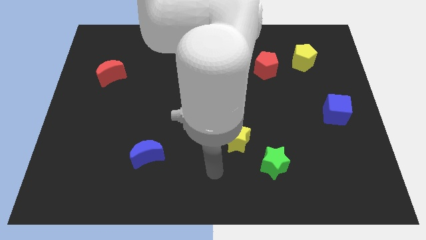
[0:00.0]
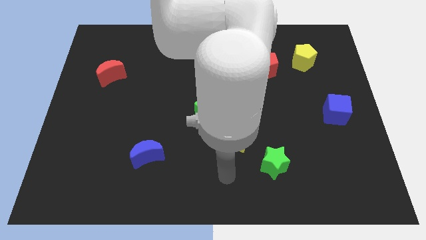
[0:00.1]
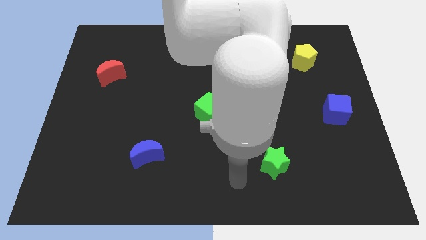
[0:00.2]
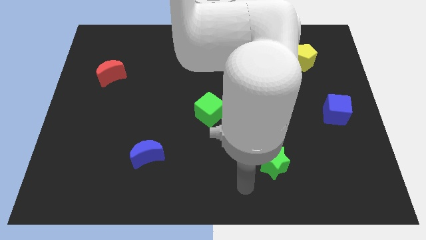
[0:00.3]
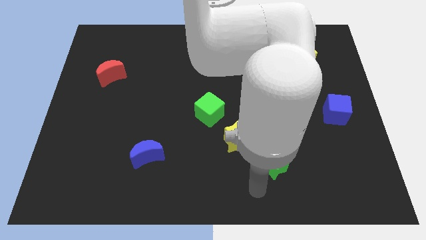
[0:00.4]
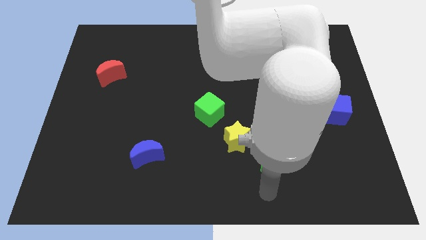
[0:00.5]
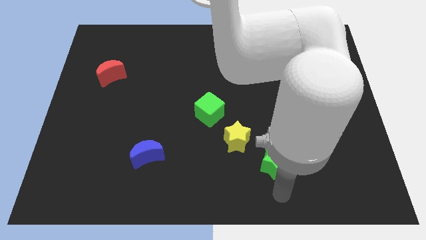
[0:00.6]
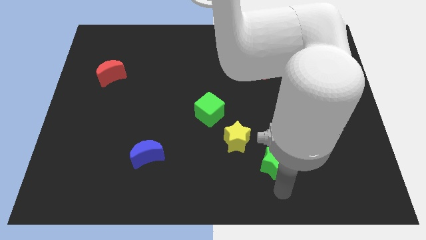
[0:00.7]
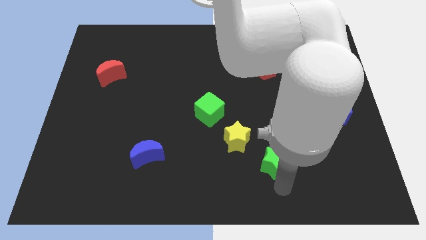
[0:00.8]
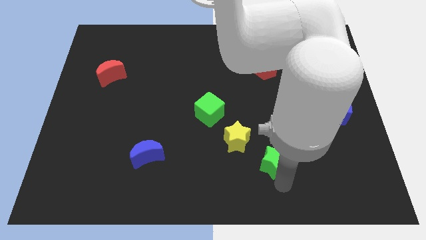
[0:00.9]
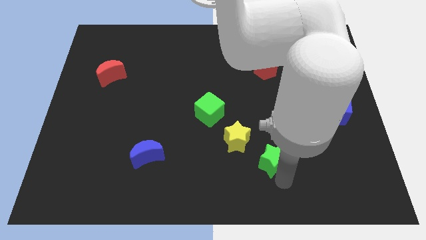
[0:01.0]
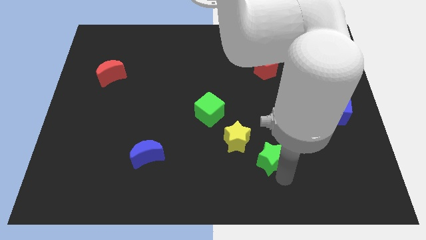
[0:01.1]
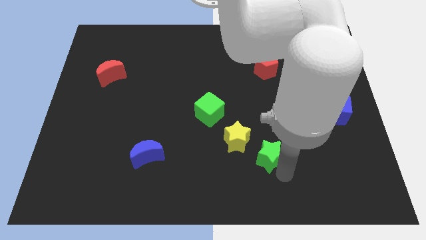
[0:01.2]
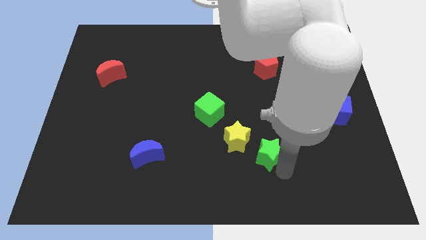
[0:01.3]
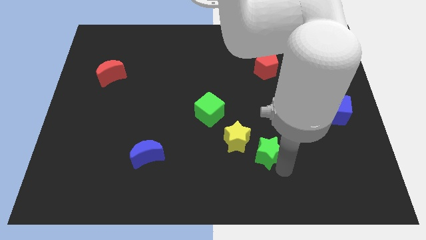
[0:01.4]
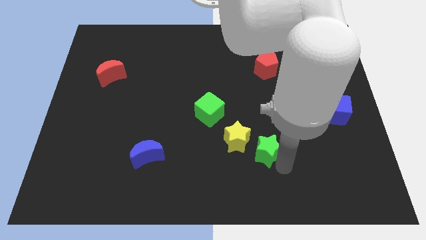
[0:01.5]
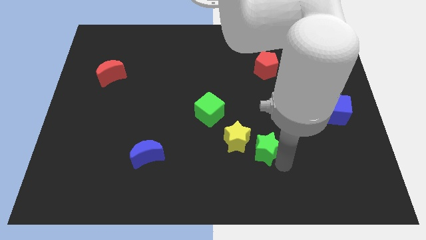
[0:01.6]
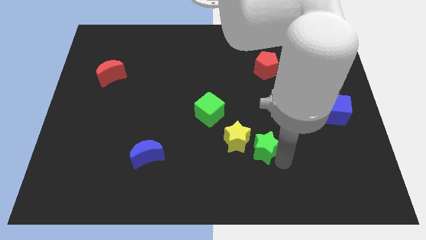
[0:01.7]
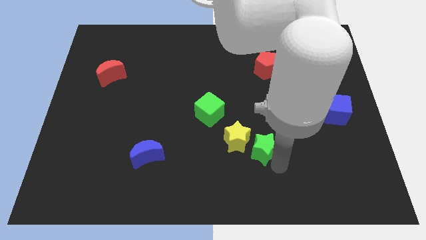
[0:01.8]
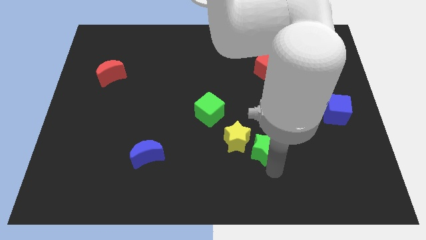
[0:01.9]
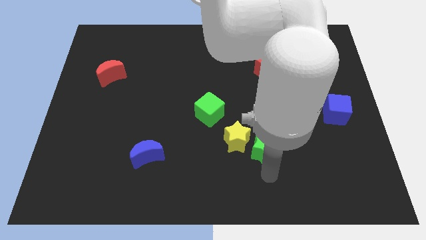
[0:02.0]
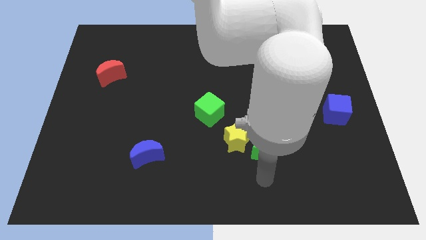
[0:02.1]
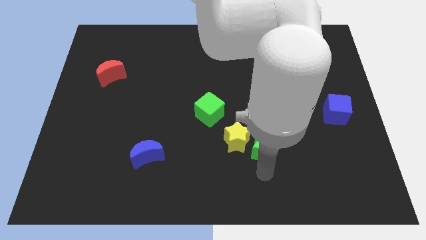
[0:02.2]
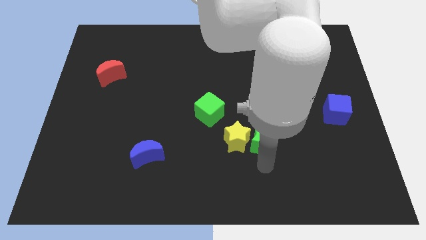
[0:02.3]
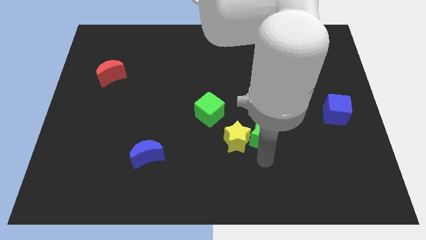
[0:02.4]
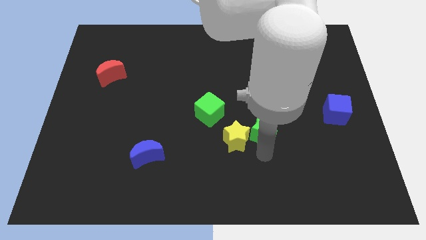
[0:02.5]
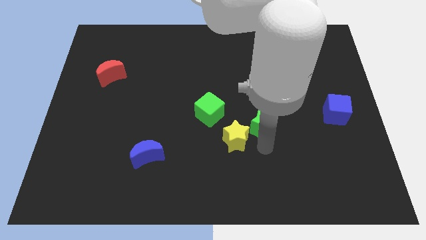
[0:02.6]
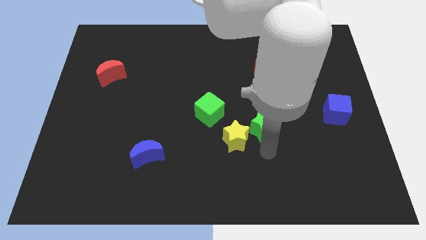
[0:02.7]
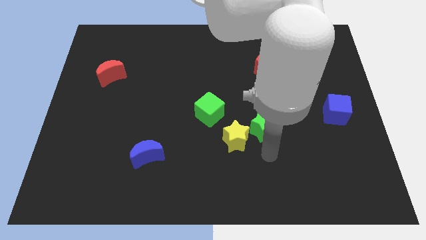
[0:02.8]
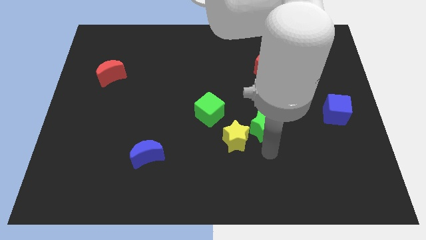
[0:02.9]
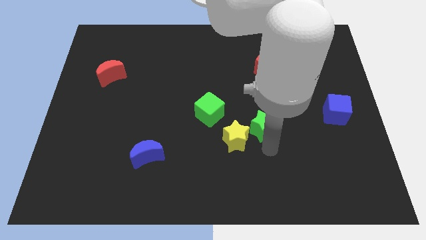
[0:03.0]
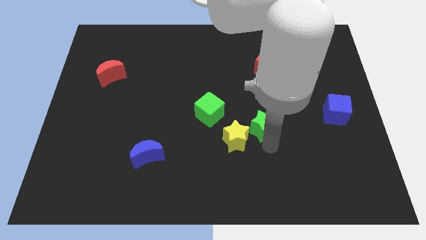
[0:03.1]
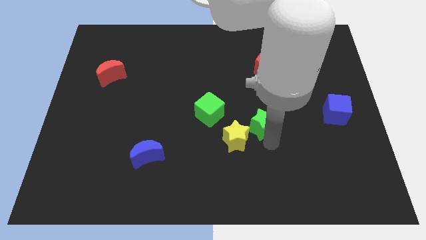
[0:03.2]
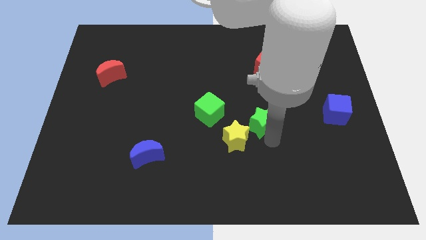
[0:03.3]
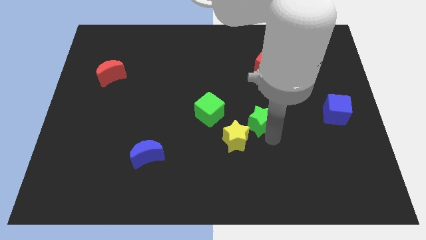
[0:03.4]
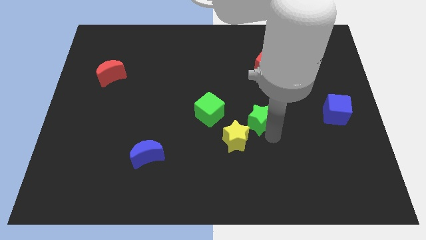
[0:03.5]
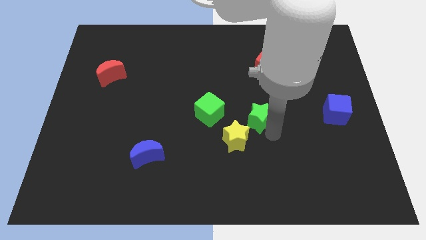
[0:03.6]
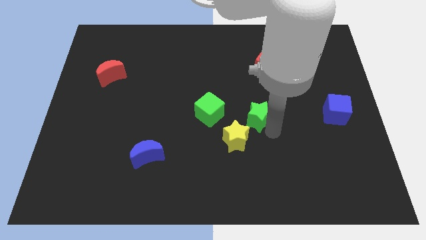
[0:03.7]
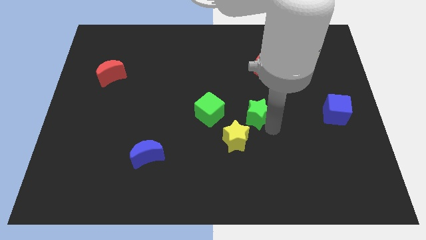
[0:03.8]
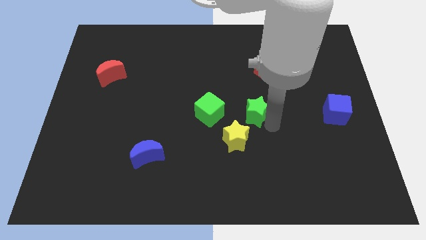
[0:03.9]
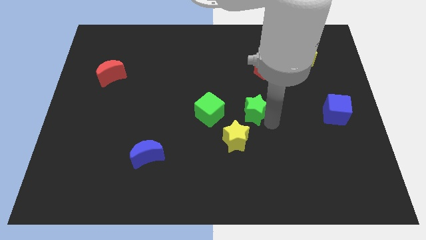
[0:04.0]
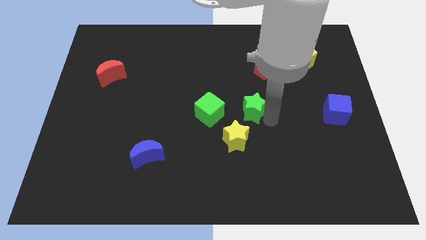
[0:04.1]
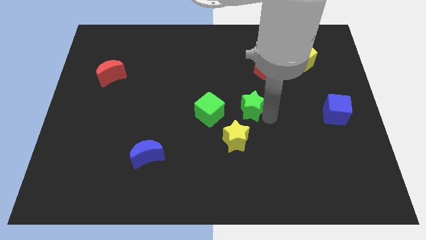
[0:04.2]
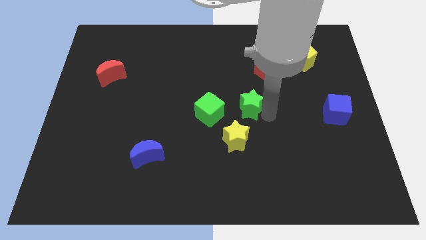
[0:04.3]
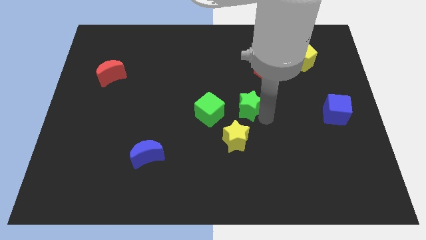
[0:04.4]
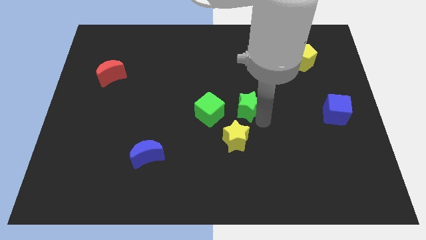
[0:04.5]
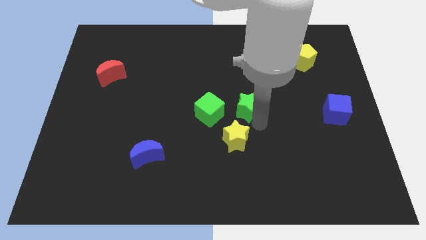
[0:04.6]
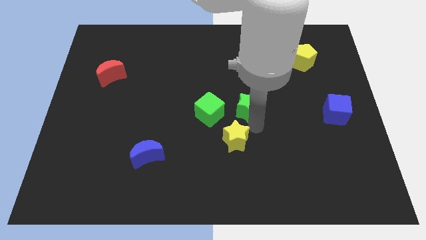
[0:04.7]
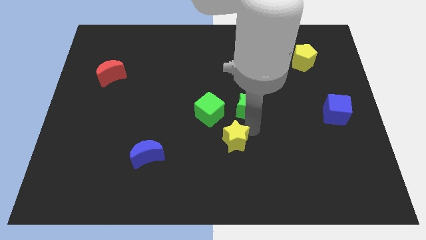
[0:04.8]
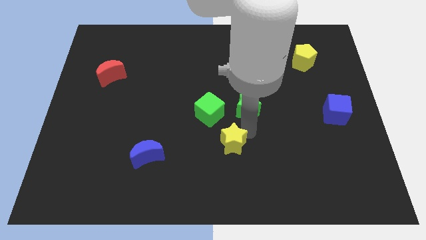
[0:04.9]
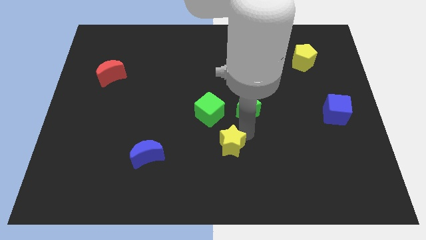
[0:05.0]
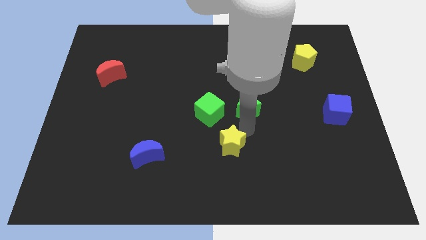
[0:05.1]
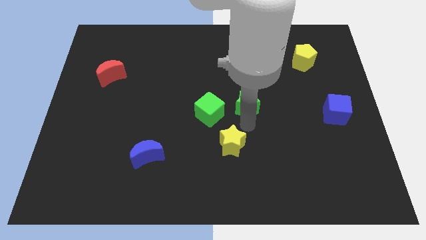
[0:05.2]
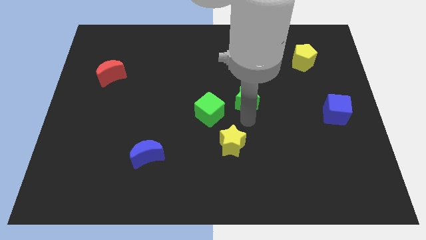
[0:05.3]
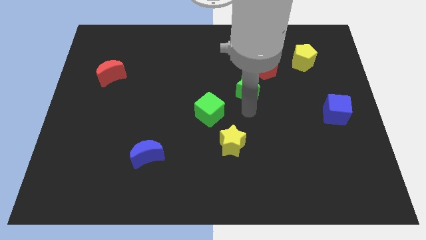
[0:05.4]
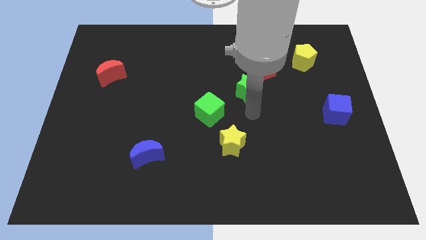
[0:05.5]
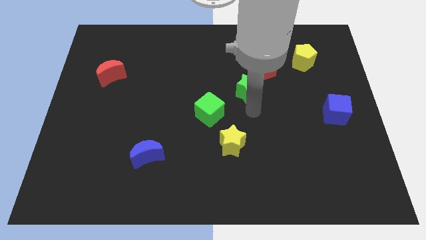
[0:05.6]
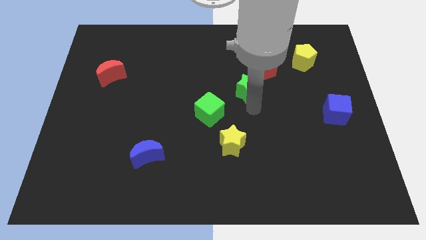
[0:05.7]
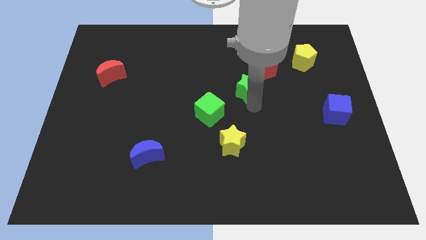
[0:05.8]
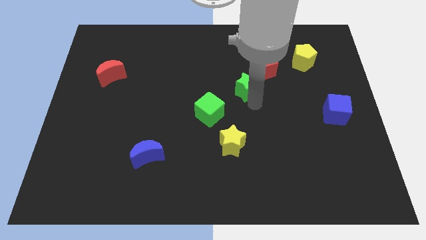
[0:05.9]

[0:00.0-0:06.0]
move the green star up

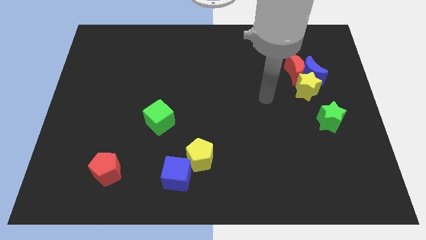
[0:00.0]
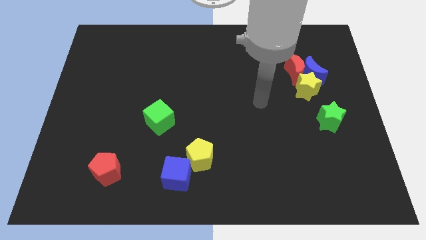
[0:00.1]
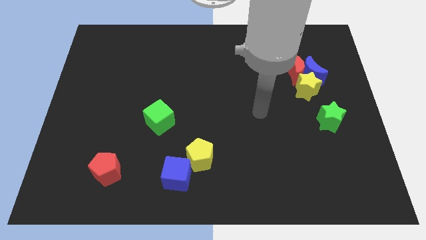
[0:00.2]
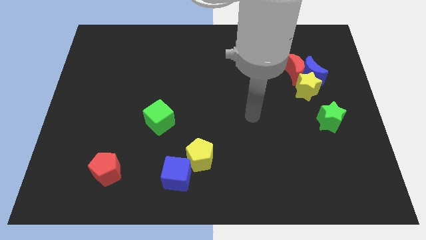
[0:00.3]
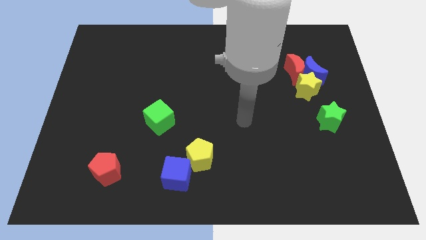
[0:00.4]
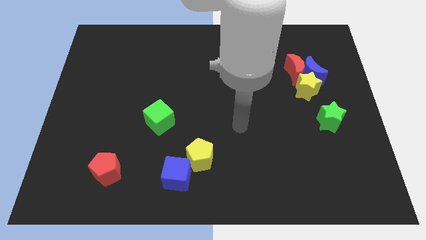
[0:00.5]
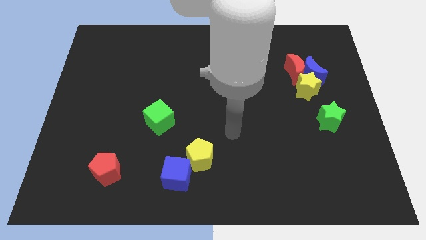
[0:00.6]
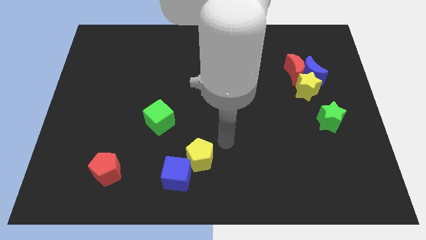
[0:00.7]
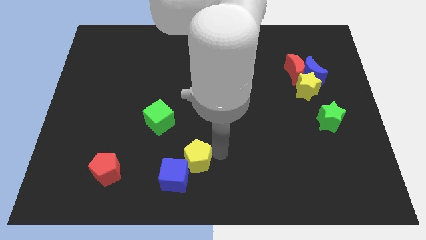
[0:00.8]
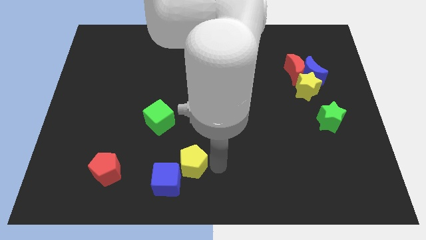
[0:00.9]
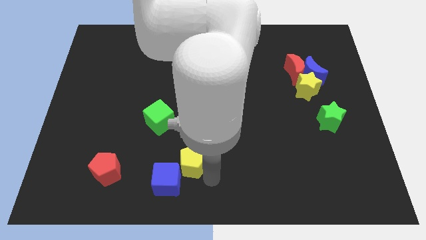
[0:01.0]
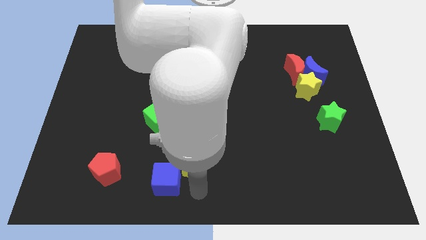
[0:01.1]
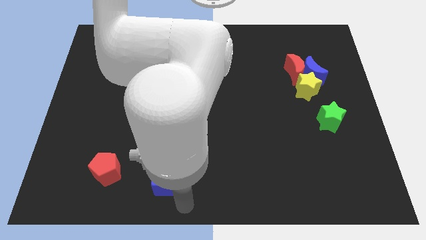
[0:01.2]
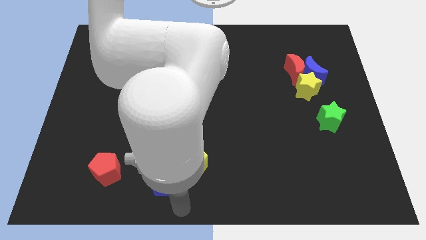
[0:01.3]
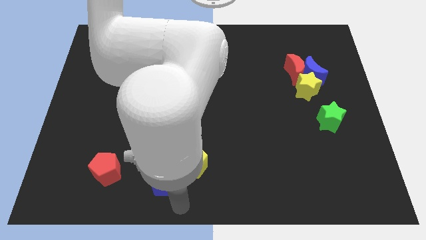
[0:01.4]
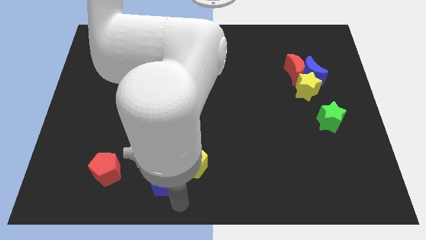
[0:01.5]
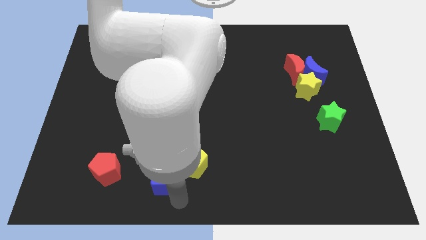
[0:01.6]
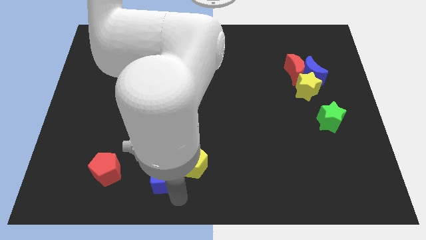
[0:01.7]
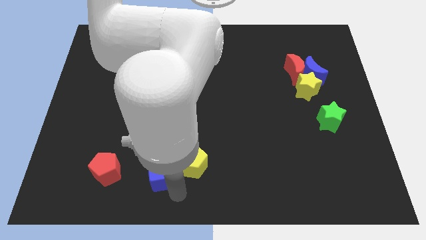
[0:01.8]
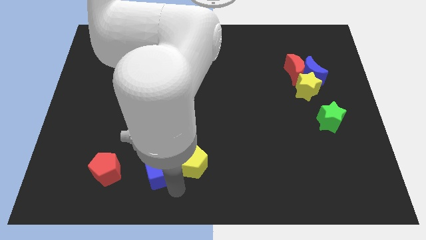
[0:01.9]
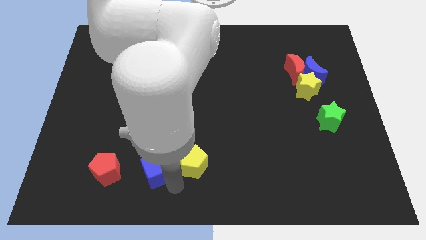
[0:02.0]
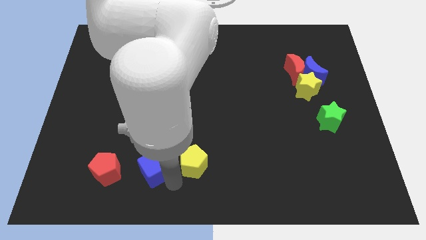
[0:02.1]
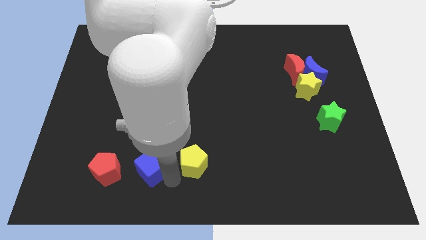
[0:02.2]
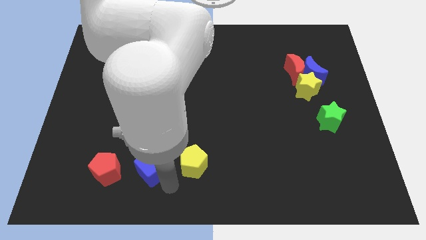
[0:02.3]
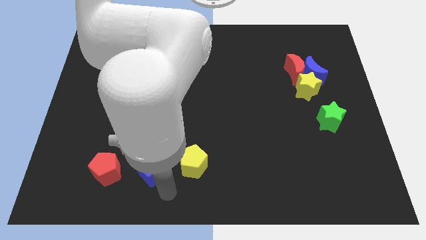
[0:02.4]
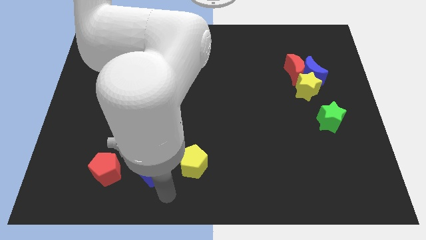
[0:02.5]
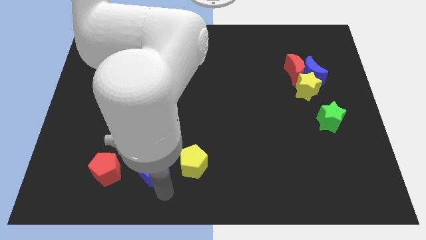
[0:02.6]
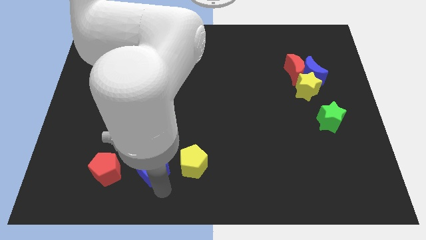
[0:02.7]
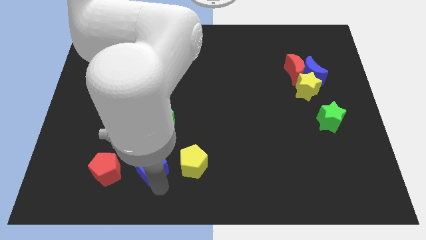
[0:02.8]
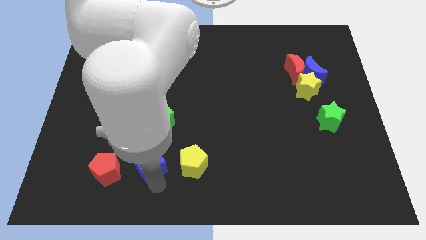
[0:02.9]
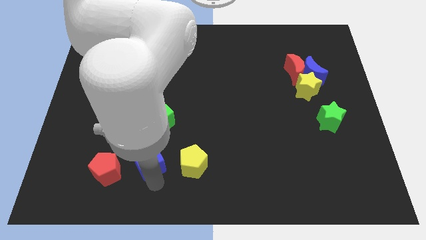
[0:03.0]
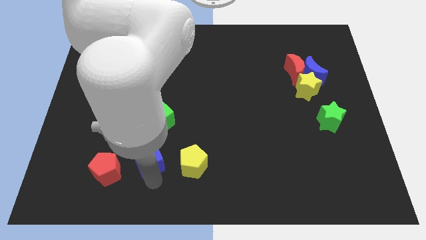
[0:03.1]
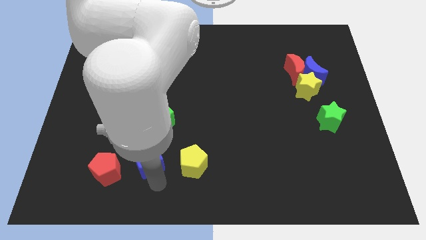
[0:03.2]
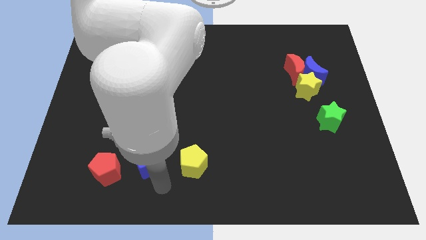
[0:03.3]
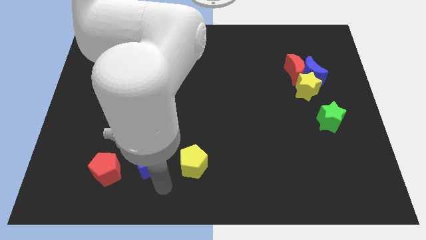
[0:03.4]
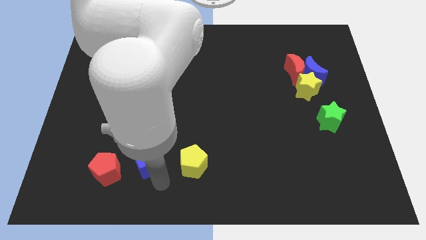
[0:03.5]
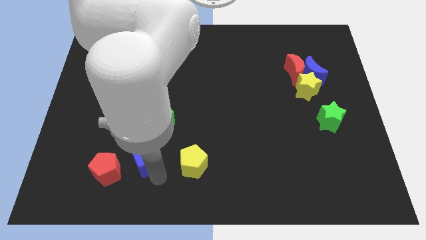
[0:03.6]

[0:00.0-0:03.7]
push the blue cube upwards and then left slightly
